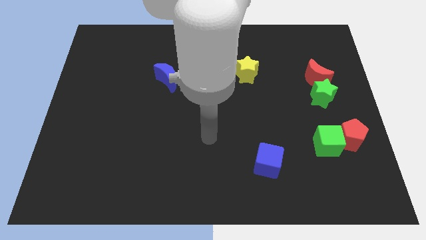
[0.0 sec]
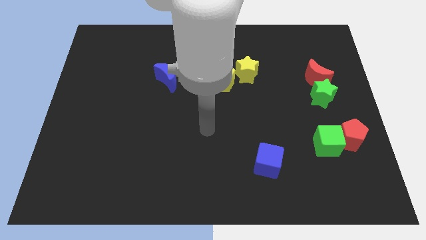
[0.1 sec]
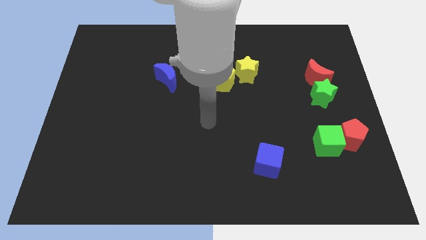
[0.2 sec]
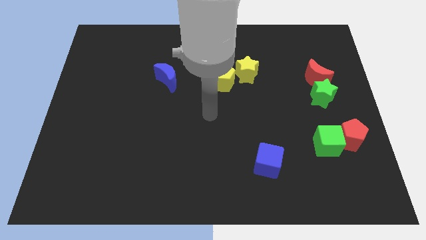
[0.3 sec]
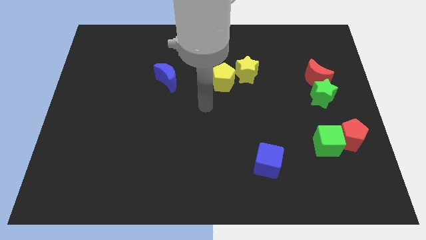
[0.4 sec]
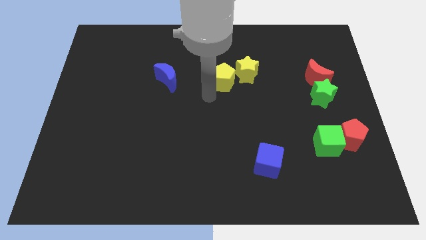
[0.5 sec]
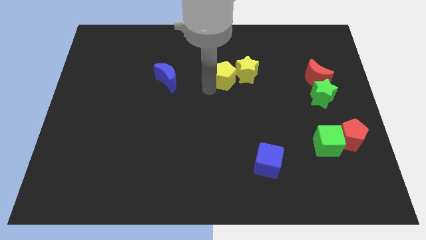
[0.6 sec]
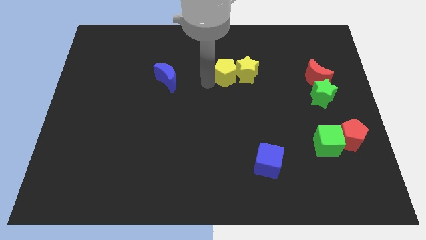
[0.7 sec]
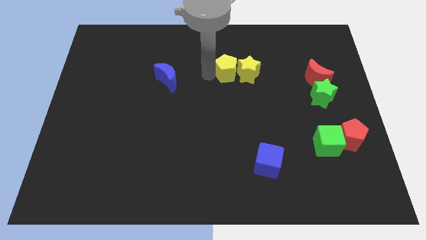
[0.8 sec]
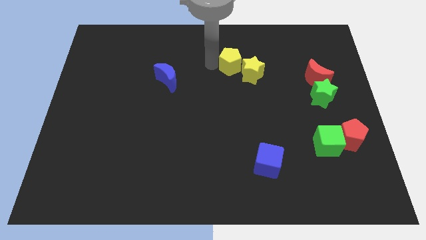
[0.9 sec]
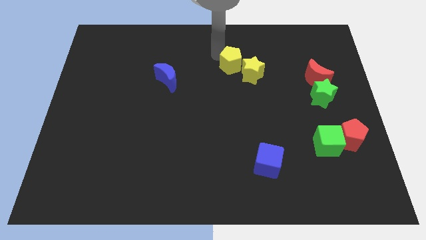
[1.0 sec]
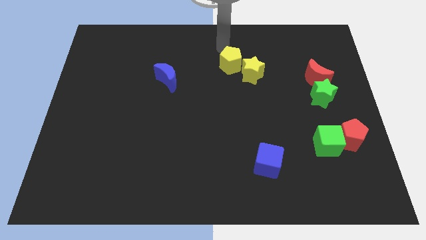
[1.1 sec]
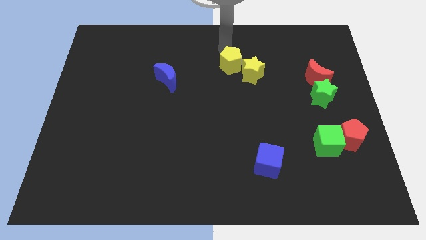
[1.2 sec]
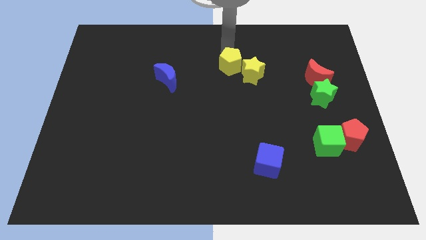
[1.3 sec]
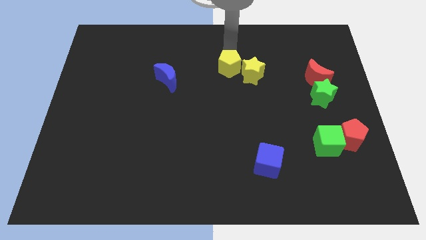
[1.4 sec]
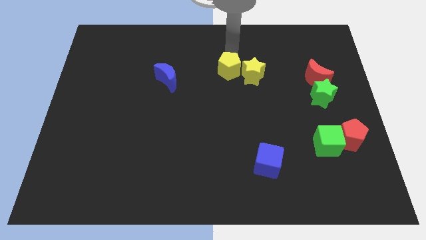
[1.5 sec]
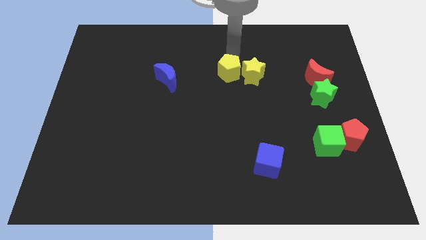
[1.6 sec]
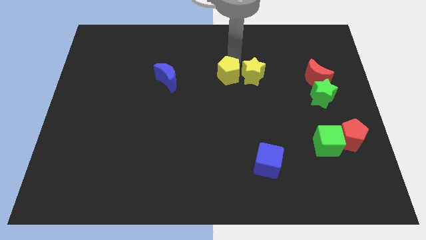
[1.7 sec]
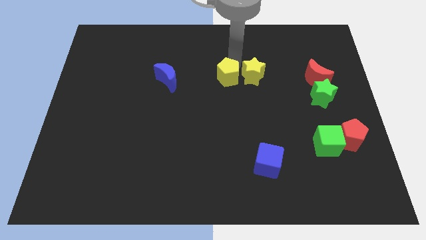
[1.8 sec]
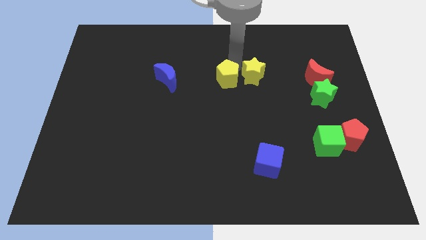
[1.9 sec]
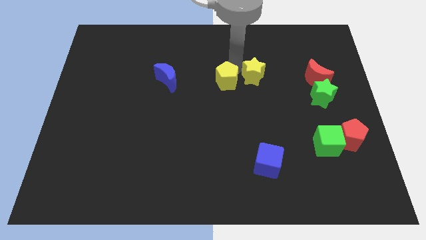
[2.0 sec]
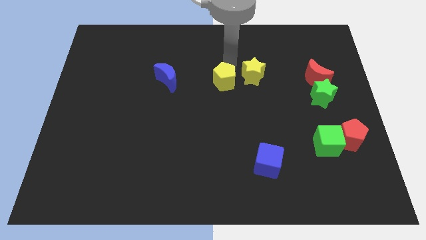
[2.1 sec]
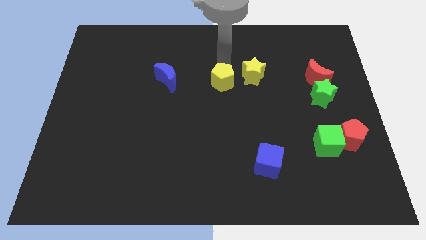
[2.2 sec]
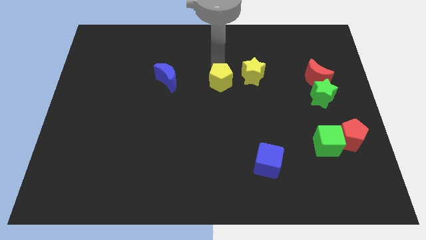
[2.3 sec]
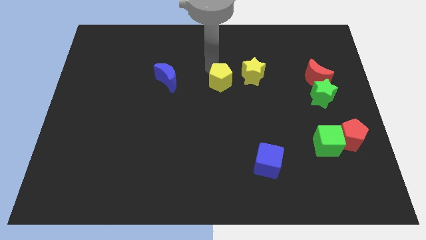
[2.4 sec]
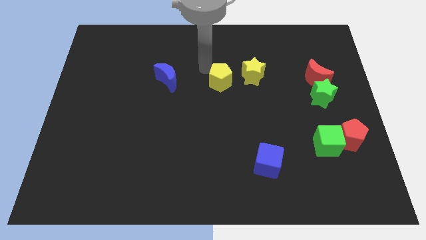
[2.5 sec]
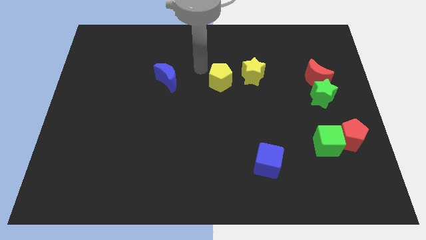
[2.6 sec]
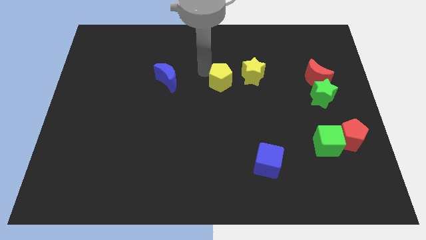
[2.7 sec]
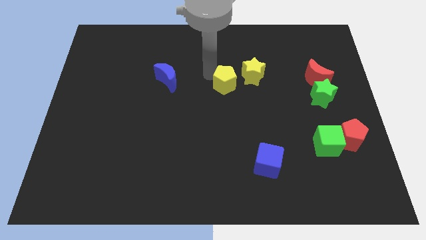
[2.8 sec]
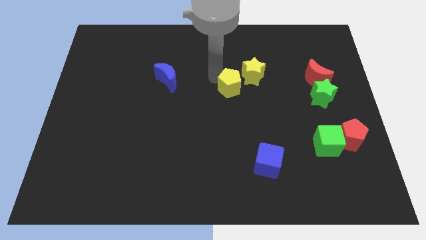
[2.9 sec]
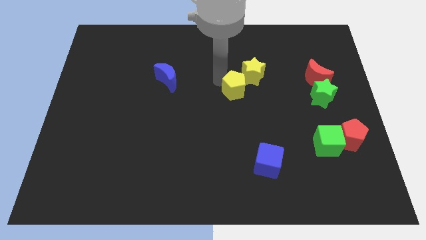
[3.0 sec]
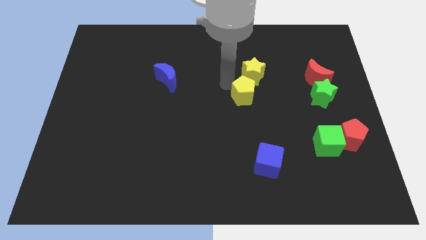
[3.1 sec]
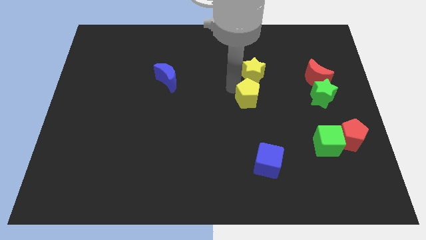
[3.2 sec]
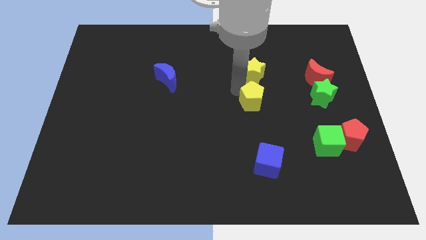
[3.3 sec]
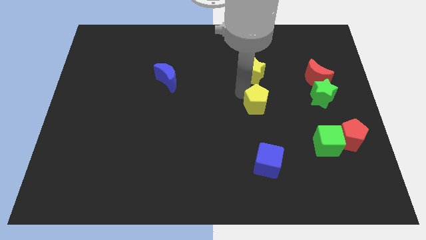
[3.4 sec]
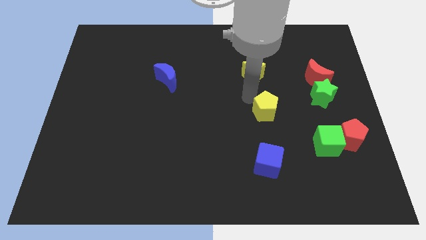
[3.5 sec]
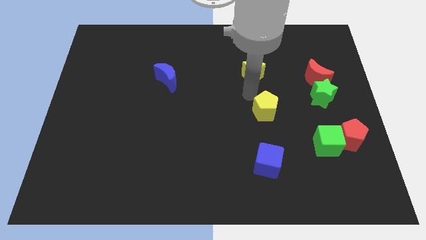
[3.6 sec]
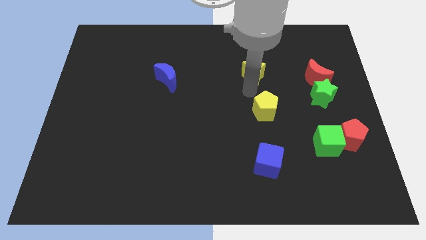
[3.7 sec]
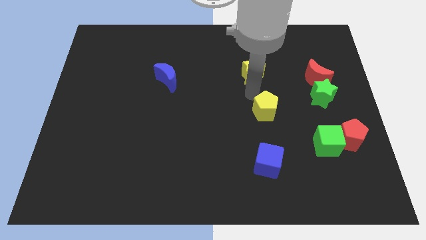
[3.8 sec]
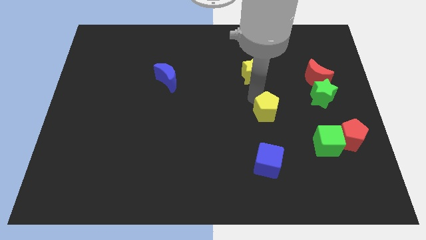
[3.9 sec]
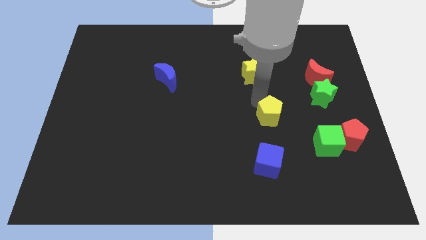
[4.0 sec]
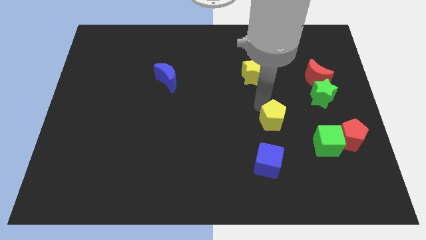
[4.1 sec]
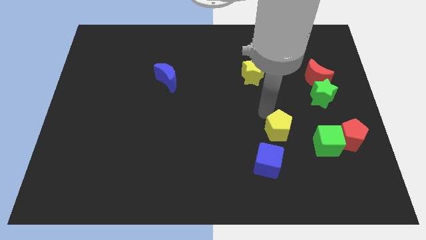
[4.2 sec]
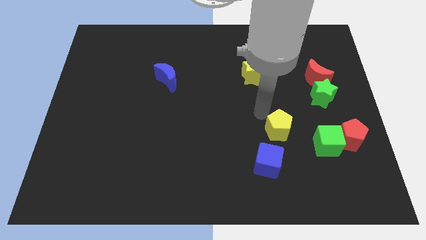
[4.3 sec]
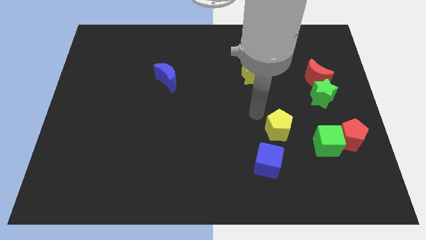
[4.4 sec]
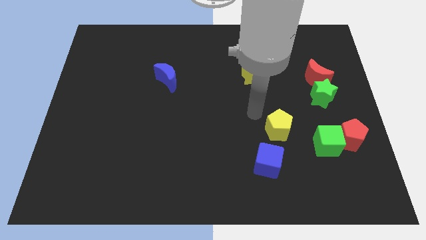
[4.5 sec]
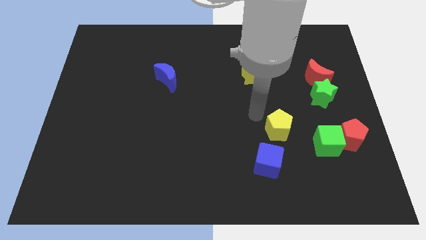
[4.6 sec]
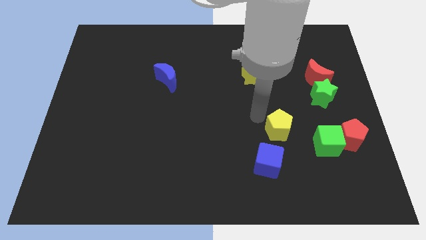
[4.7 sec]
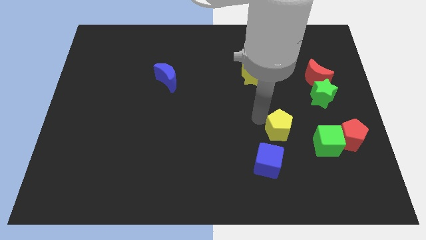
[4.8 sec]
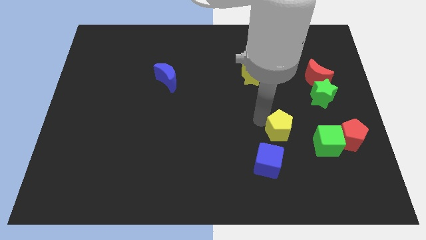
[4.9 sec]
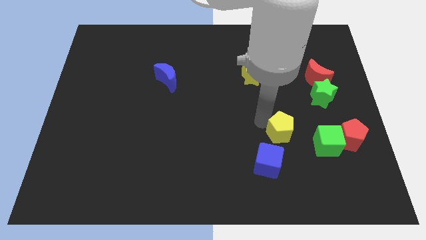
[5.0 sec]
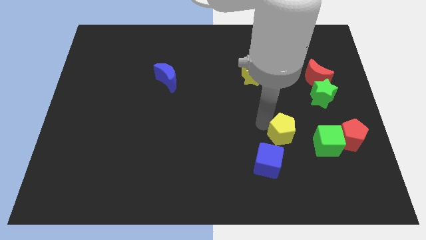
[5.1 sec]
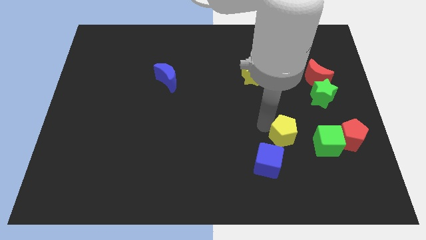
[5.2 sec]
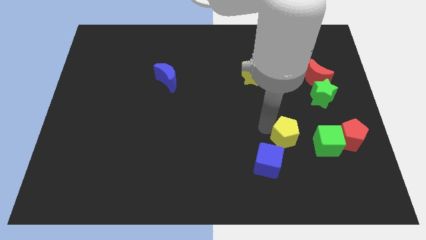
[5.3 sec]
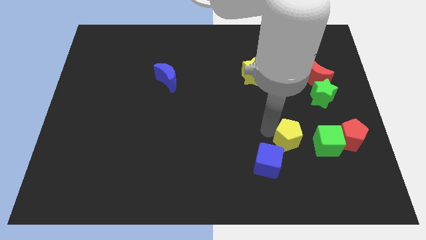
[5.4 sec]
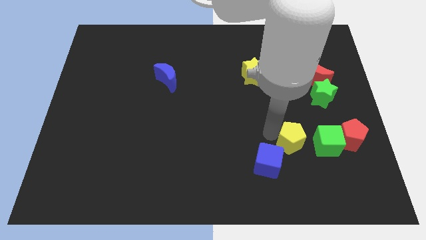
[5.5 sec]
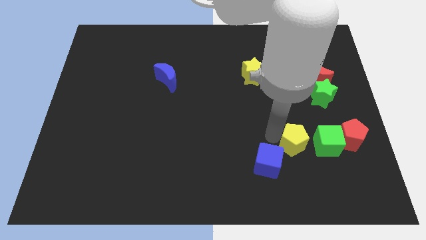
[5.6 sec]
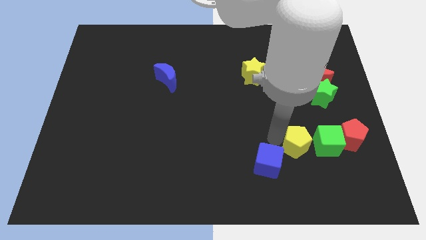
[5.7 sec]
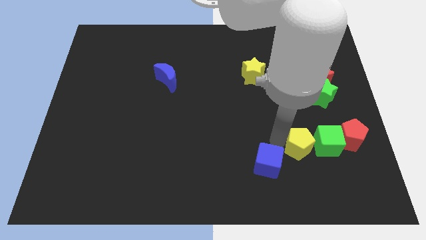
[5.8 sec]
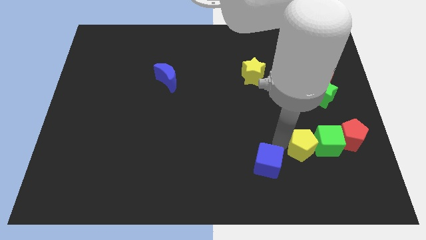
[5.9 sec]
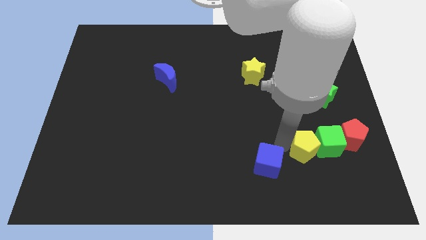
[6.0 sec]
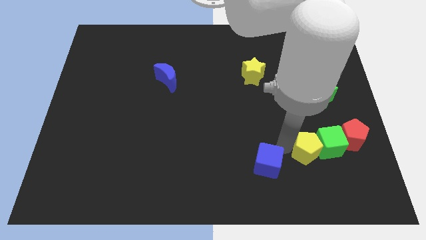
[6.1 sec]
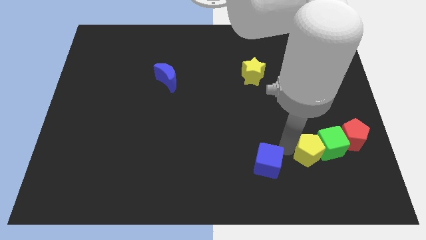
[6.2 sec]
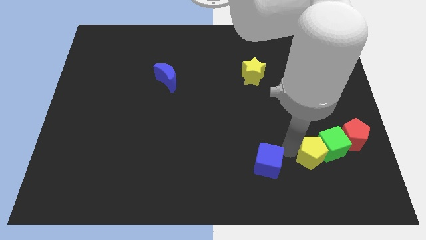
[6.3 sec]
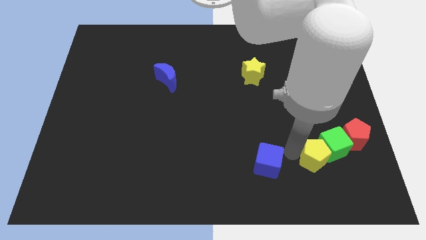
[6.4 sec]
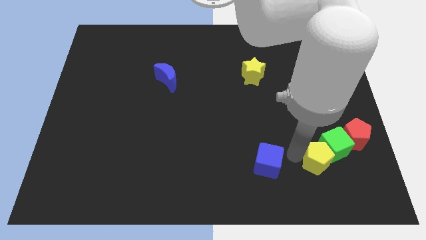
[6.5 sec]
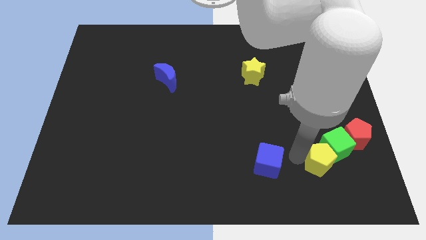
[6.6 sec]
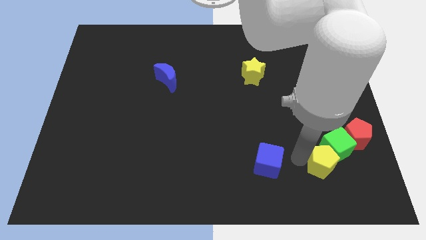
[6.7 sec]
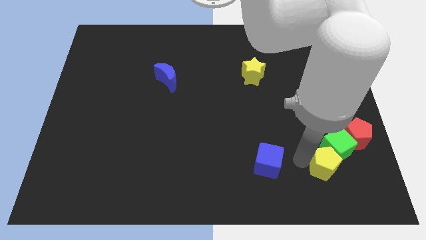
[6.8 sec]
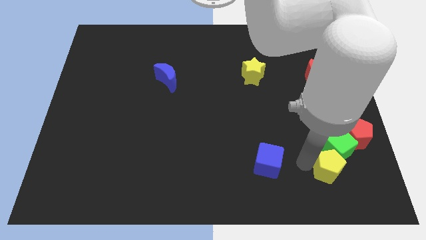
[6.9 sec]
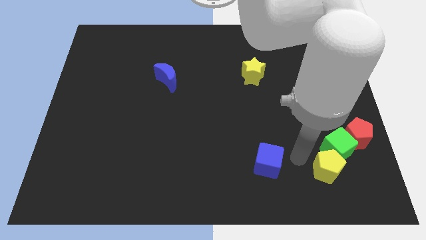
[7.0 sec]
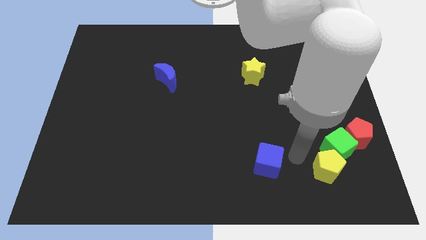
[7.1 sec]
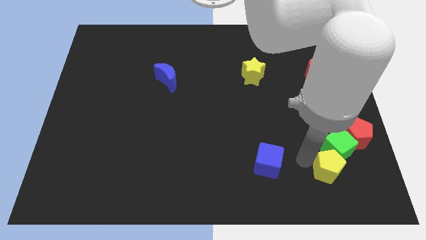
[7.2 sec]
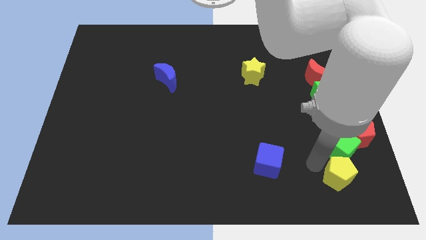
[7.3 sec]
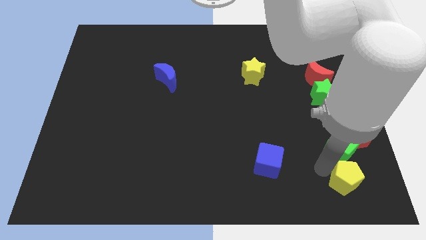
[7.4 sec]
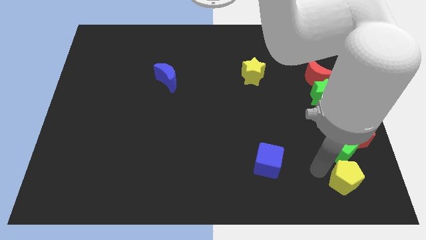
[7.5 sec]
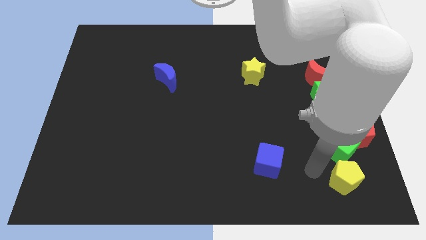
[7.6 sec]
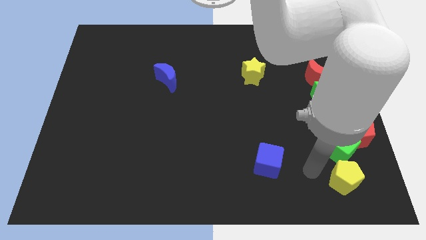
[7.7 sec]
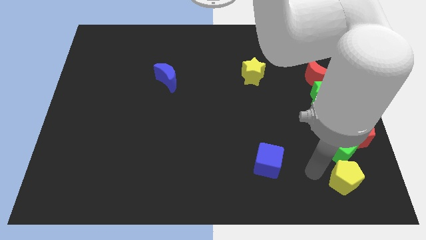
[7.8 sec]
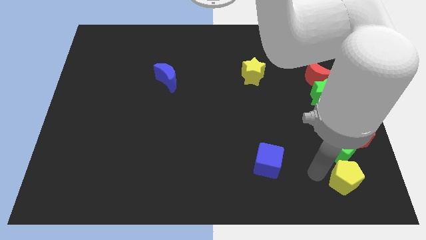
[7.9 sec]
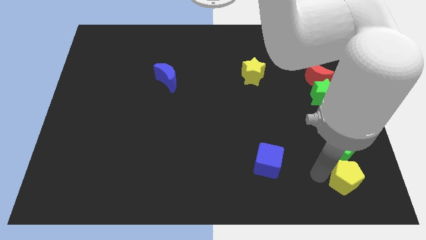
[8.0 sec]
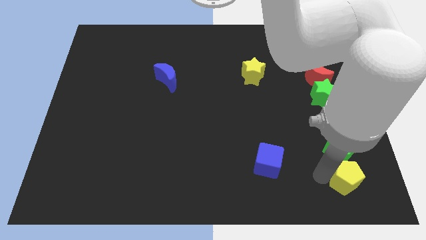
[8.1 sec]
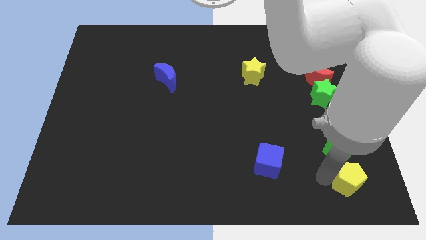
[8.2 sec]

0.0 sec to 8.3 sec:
slide the yellow pentagon to the bottom right corner
